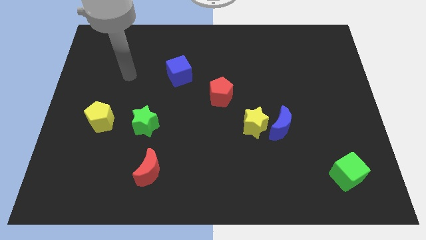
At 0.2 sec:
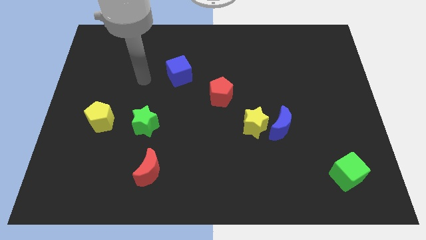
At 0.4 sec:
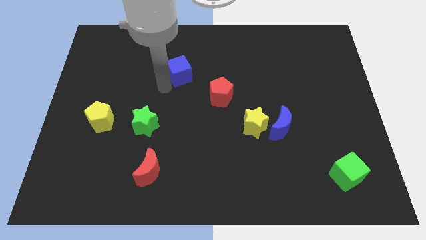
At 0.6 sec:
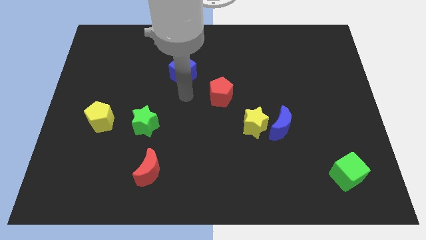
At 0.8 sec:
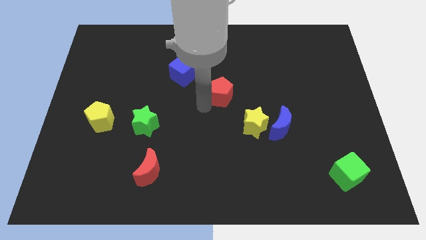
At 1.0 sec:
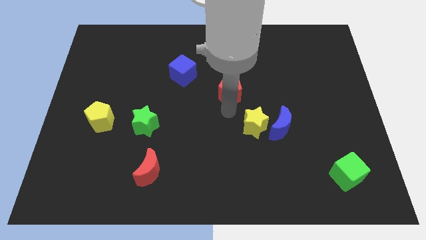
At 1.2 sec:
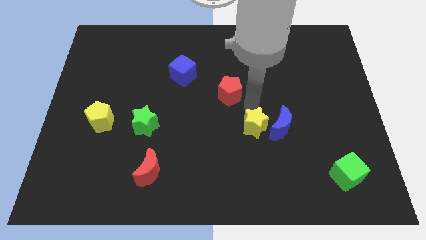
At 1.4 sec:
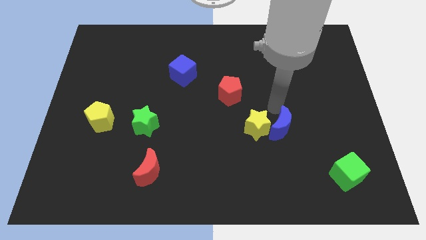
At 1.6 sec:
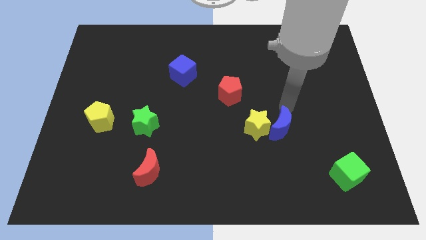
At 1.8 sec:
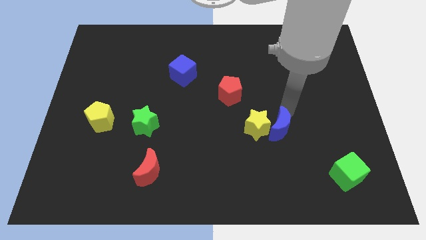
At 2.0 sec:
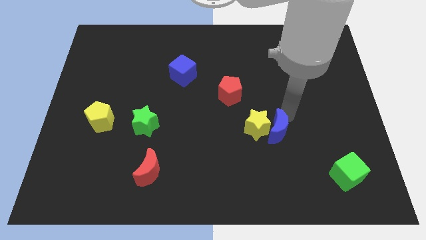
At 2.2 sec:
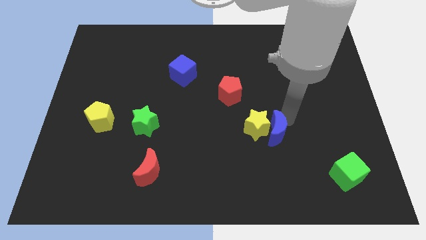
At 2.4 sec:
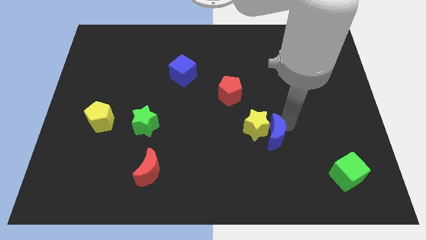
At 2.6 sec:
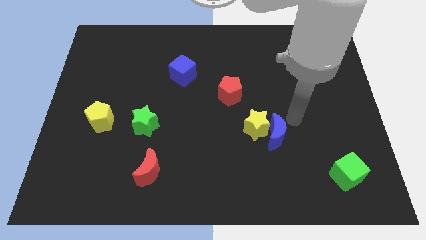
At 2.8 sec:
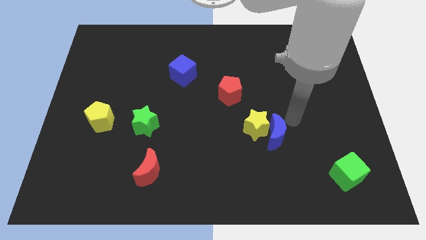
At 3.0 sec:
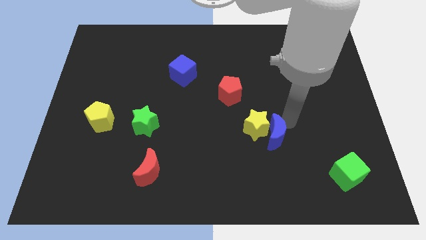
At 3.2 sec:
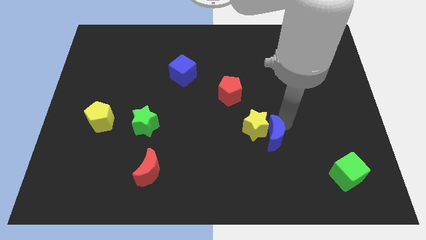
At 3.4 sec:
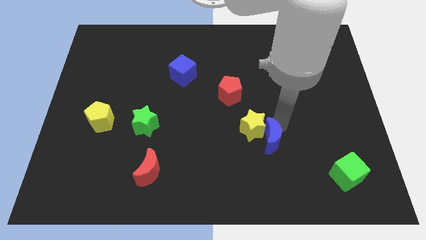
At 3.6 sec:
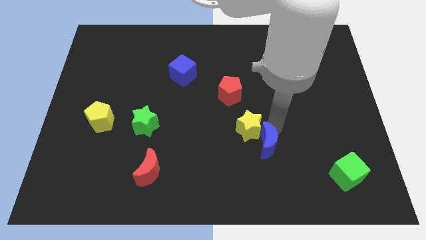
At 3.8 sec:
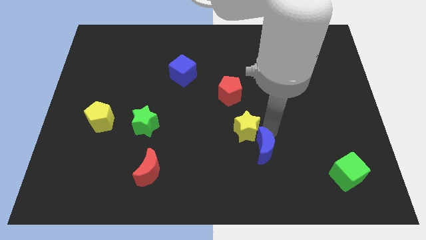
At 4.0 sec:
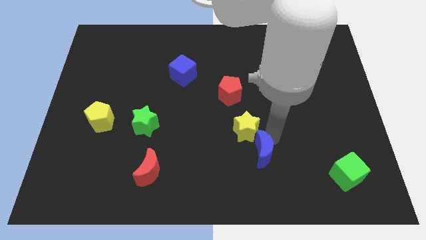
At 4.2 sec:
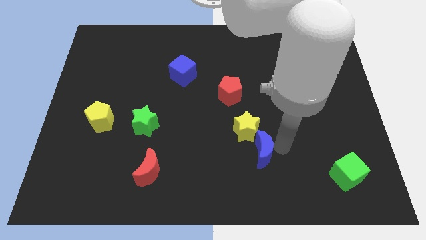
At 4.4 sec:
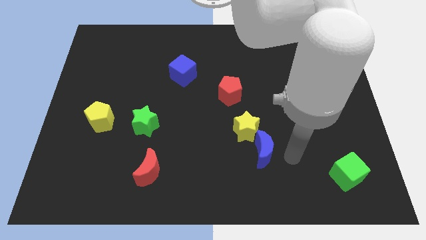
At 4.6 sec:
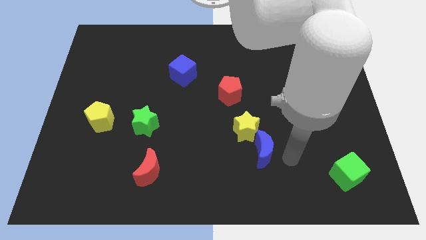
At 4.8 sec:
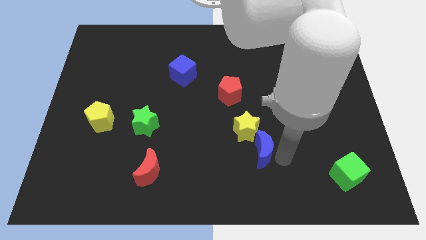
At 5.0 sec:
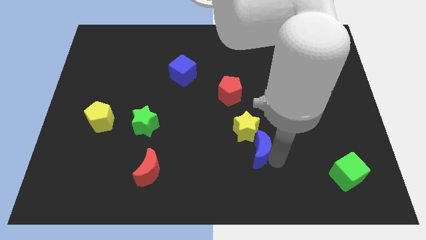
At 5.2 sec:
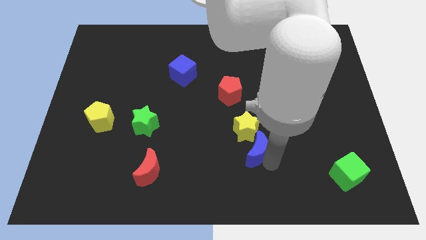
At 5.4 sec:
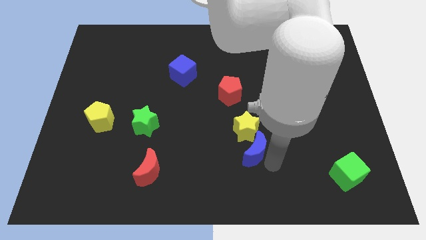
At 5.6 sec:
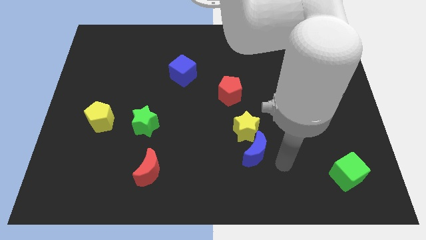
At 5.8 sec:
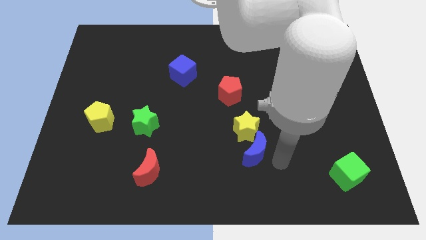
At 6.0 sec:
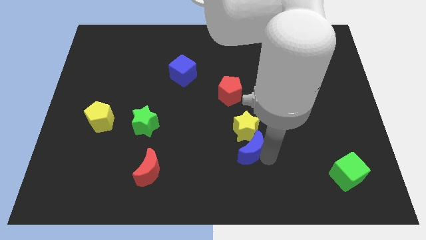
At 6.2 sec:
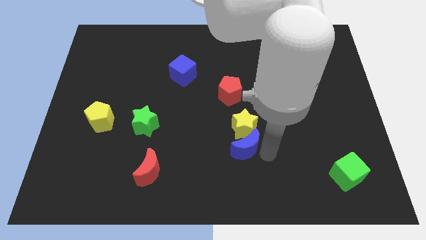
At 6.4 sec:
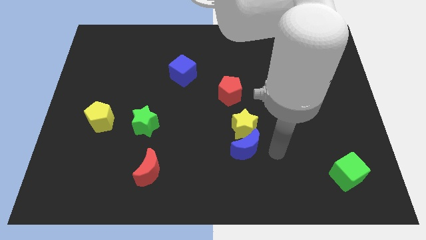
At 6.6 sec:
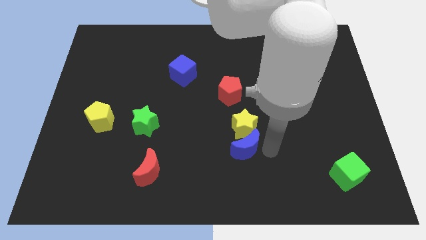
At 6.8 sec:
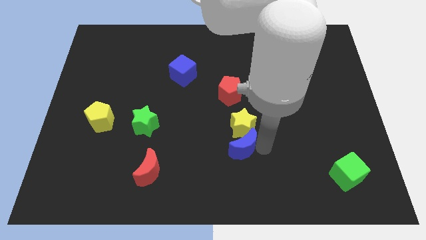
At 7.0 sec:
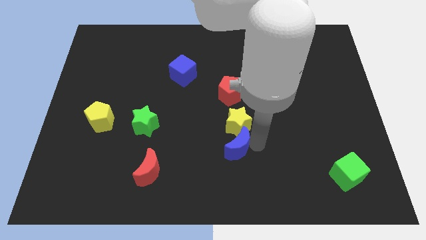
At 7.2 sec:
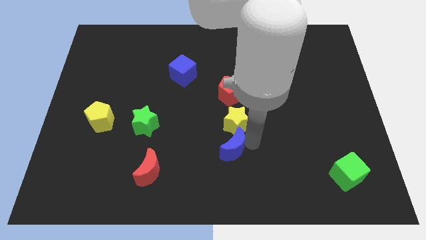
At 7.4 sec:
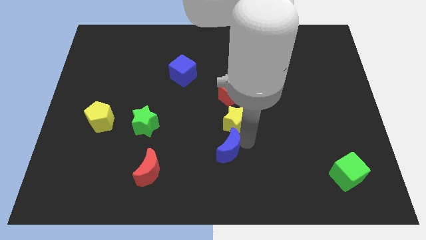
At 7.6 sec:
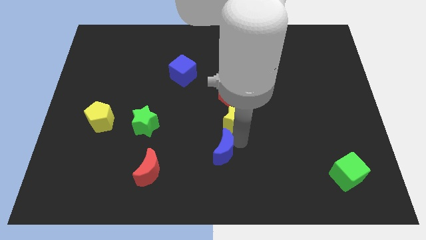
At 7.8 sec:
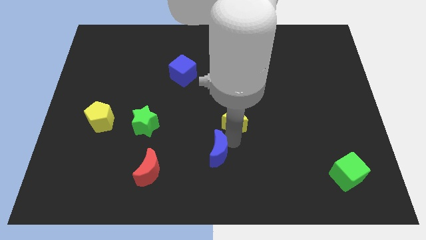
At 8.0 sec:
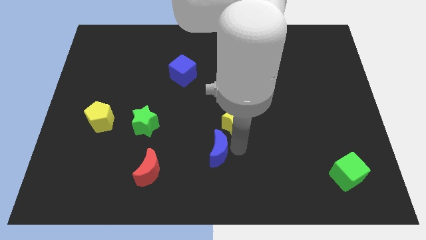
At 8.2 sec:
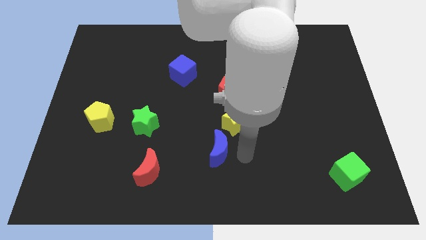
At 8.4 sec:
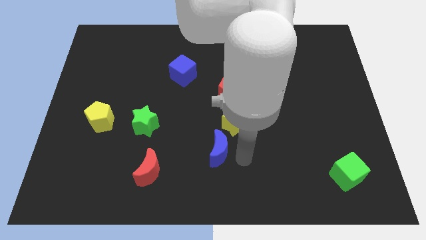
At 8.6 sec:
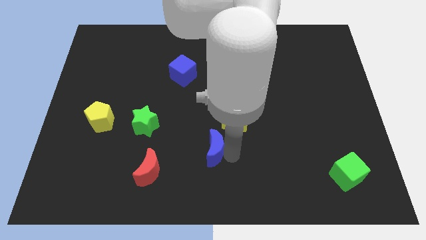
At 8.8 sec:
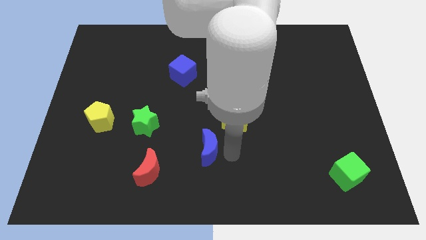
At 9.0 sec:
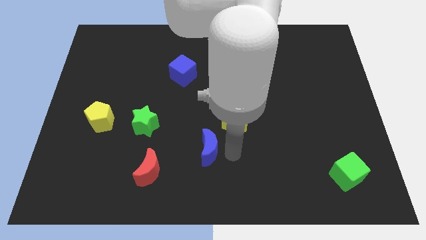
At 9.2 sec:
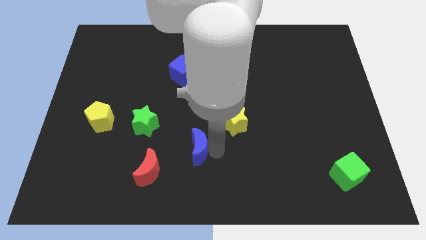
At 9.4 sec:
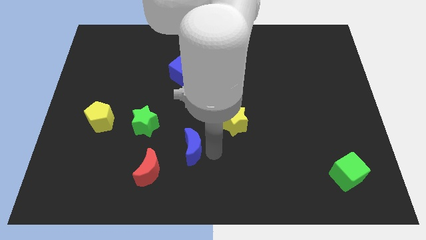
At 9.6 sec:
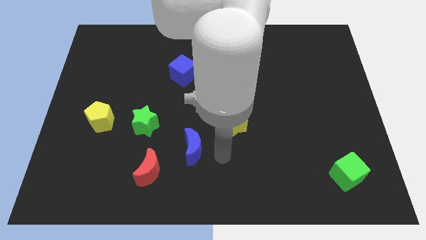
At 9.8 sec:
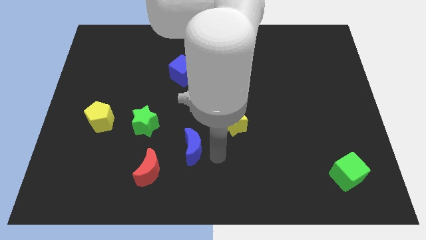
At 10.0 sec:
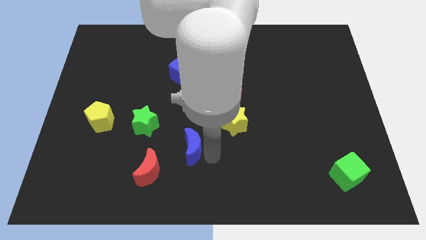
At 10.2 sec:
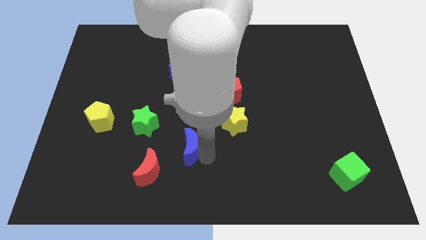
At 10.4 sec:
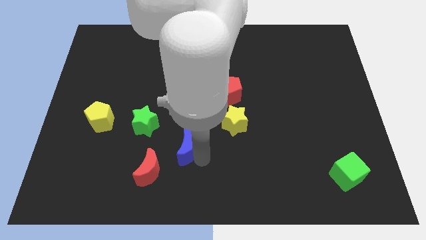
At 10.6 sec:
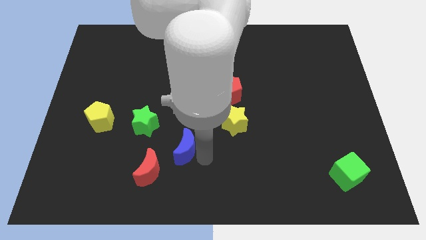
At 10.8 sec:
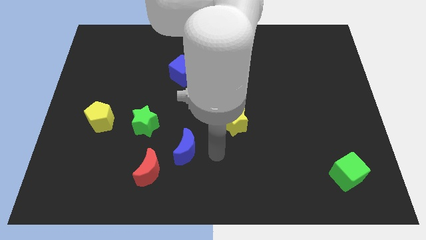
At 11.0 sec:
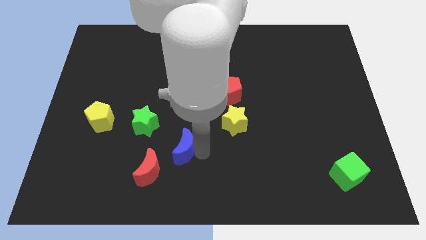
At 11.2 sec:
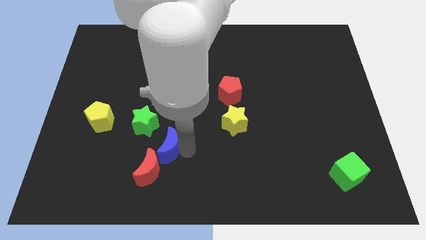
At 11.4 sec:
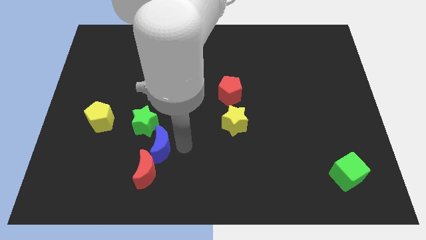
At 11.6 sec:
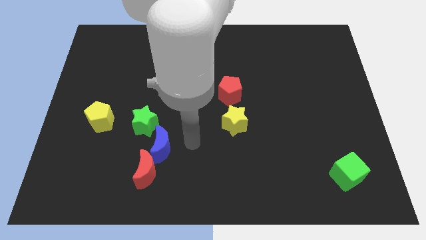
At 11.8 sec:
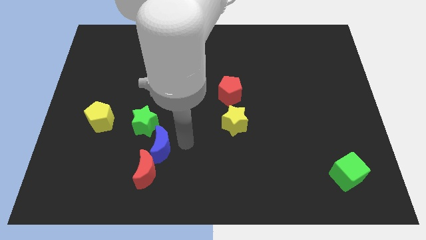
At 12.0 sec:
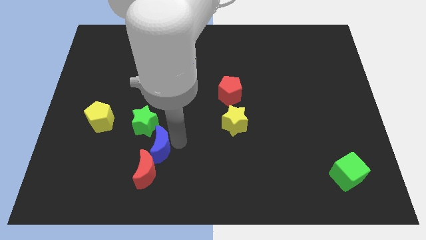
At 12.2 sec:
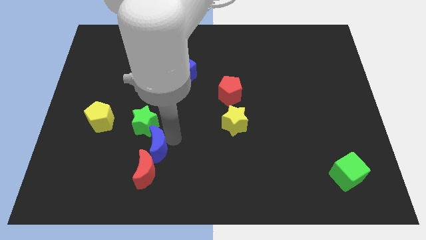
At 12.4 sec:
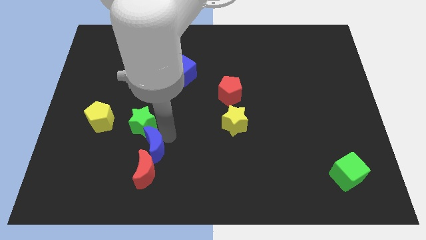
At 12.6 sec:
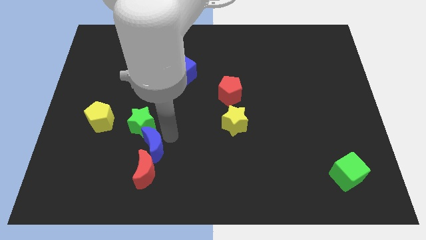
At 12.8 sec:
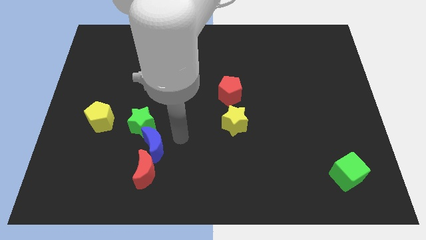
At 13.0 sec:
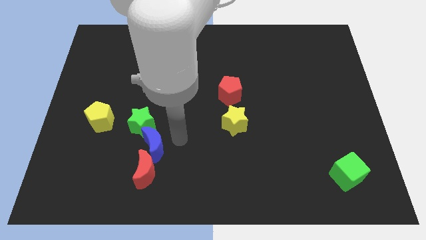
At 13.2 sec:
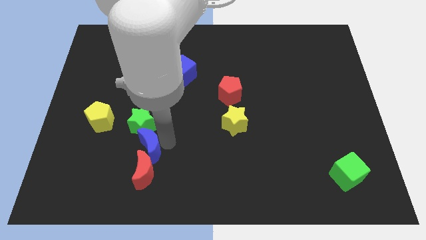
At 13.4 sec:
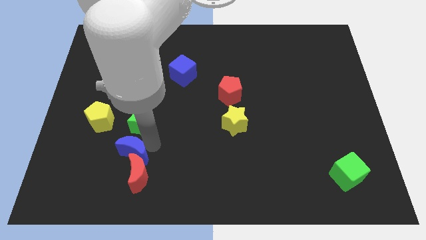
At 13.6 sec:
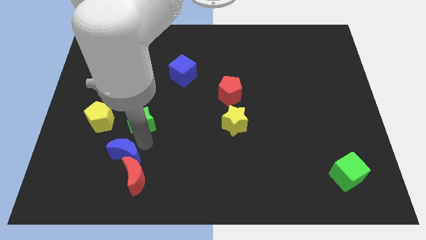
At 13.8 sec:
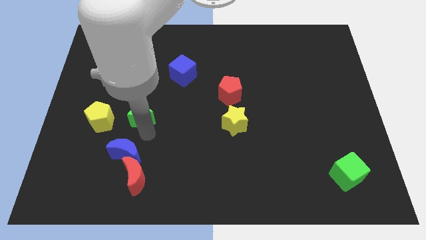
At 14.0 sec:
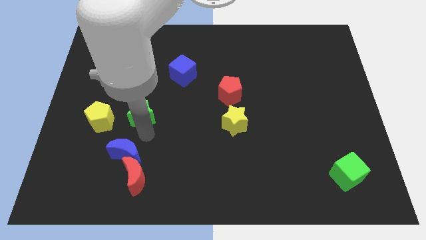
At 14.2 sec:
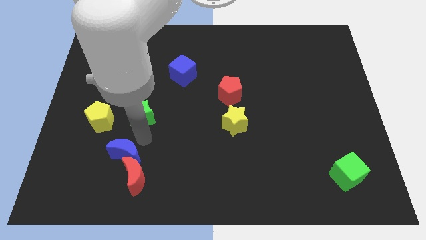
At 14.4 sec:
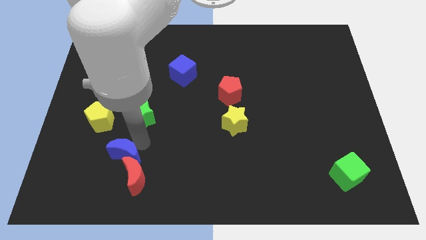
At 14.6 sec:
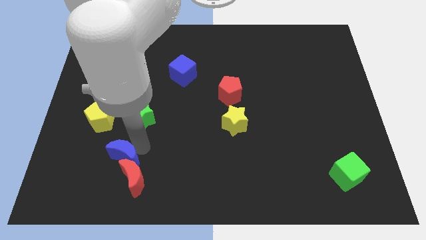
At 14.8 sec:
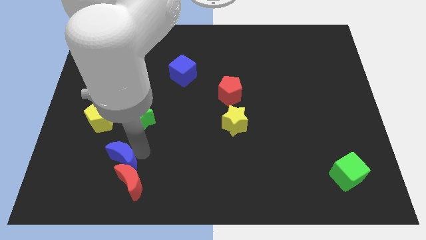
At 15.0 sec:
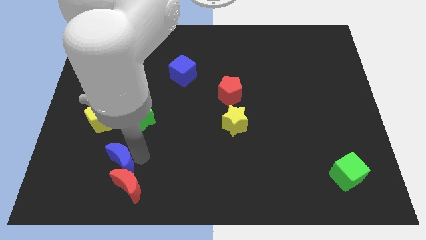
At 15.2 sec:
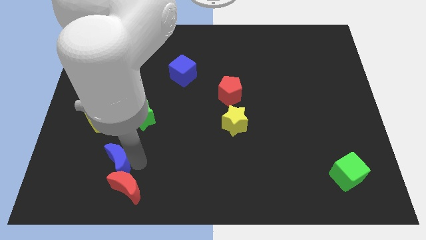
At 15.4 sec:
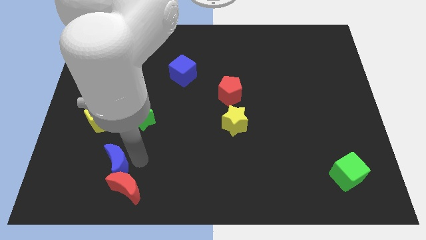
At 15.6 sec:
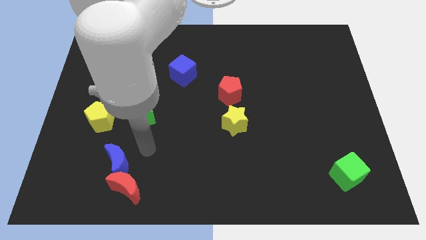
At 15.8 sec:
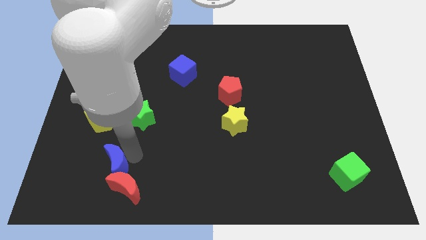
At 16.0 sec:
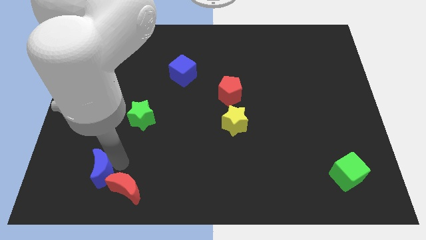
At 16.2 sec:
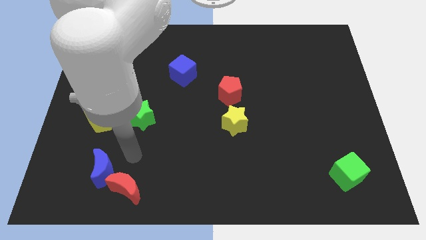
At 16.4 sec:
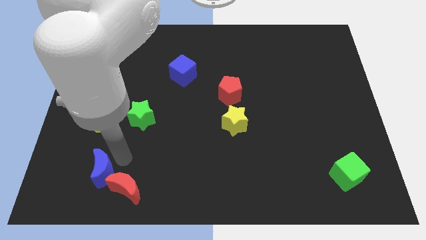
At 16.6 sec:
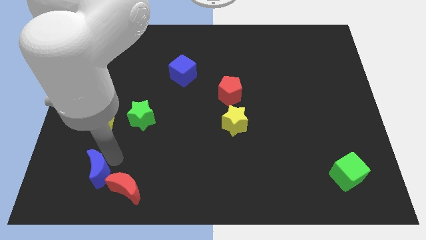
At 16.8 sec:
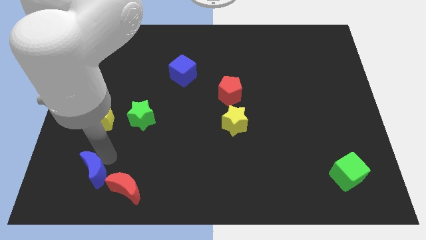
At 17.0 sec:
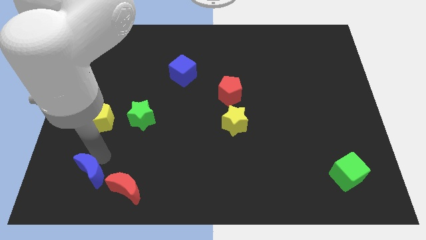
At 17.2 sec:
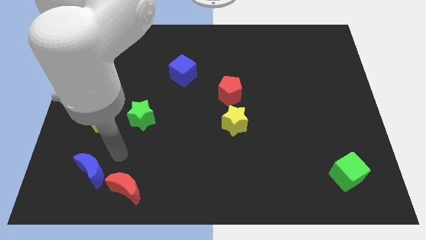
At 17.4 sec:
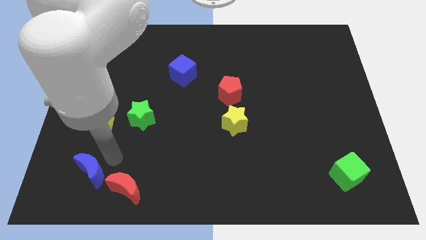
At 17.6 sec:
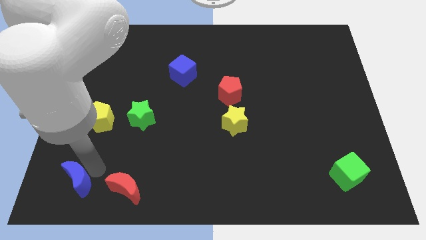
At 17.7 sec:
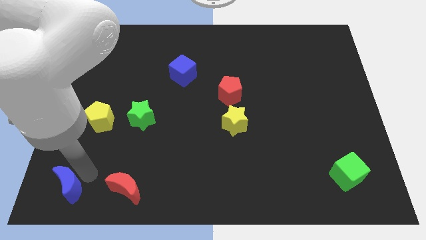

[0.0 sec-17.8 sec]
put the blue moon to the bottom left corner
